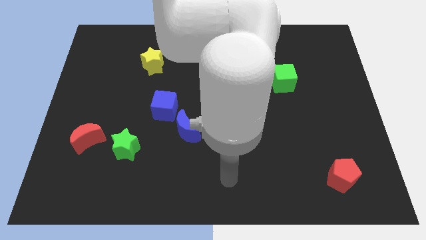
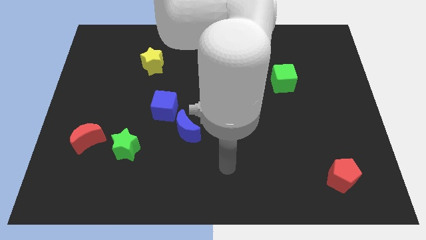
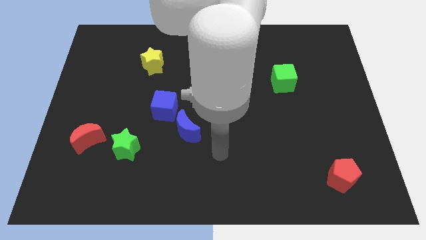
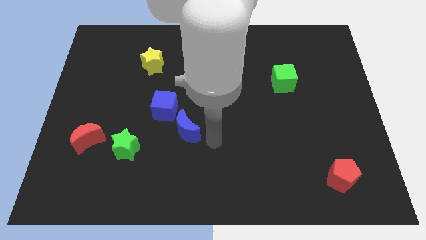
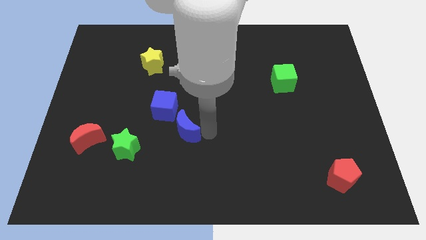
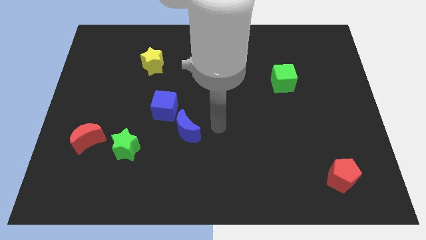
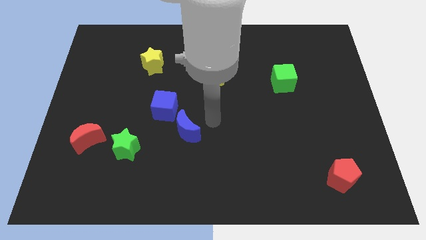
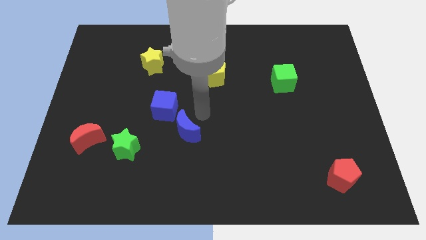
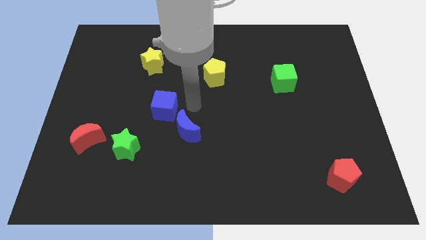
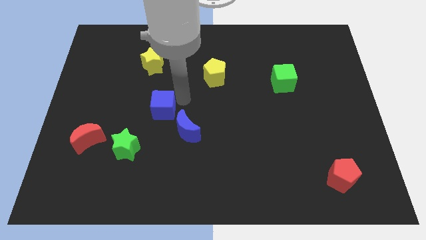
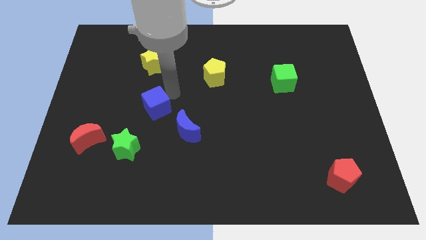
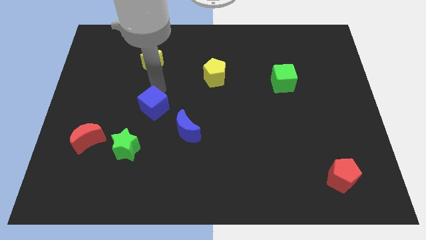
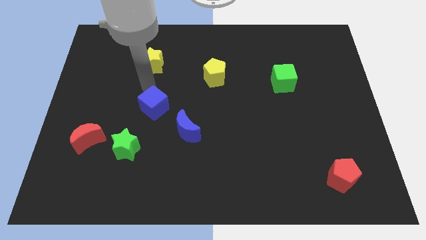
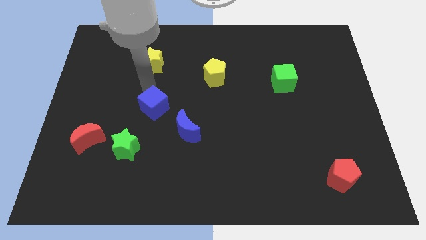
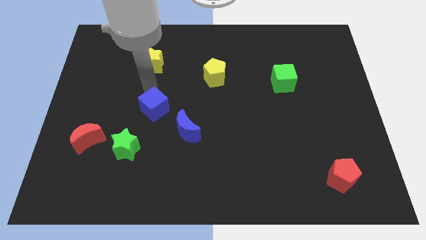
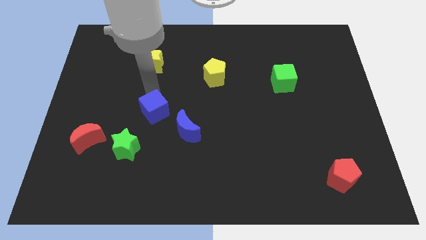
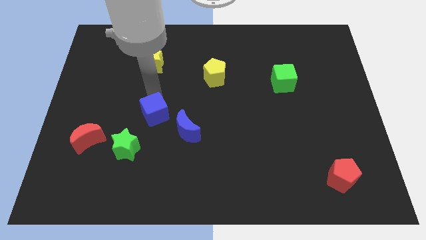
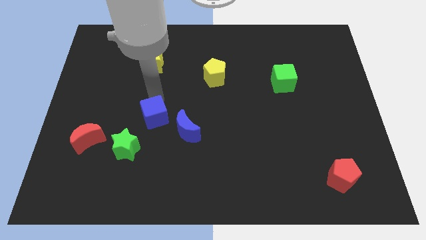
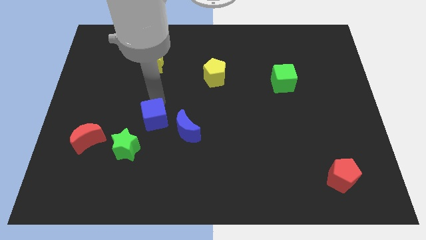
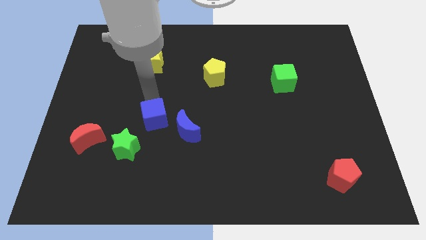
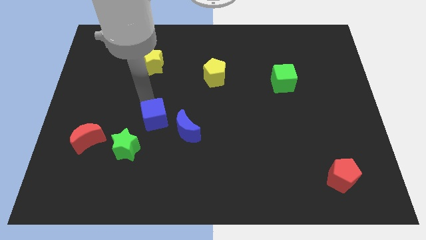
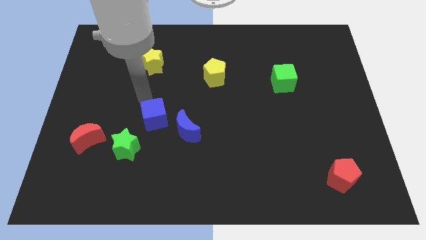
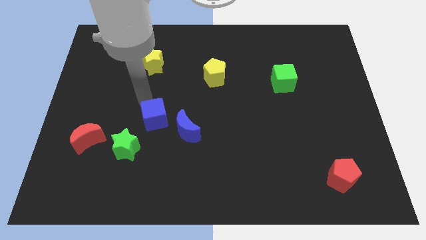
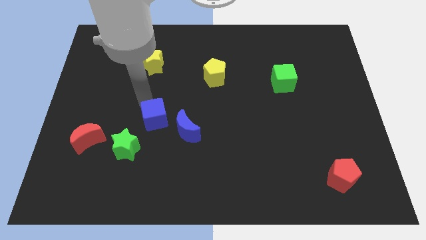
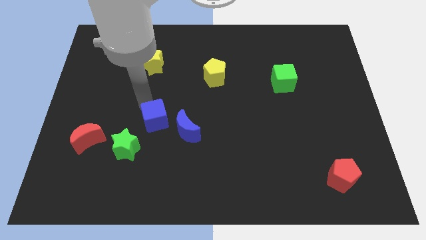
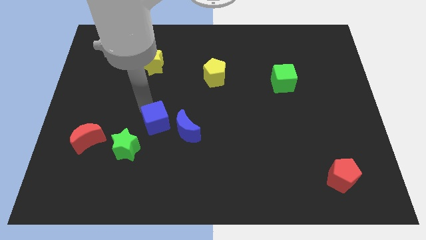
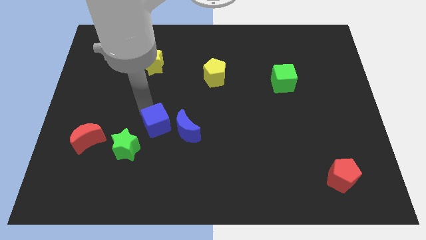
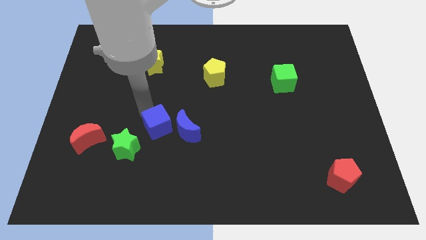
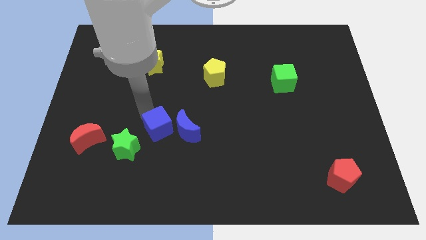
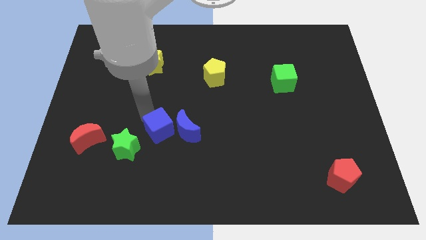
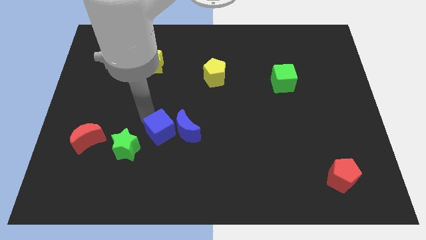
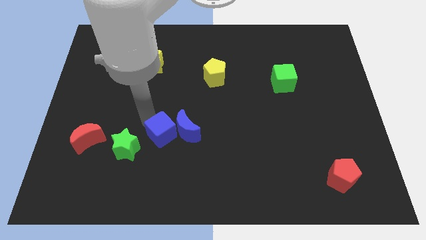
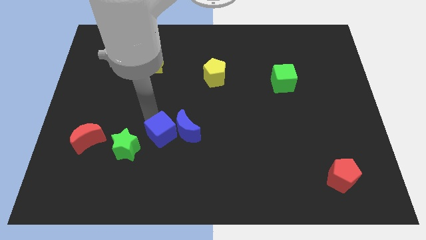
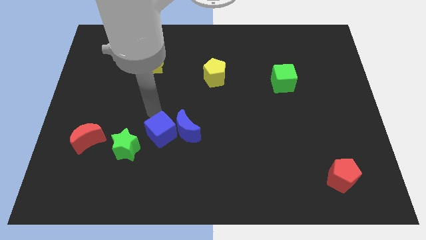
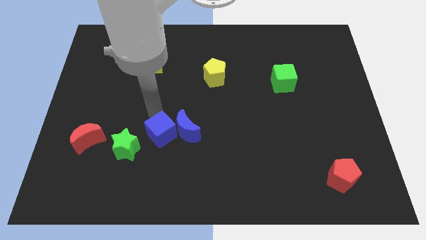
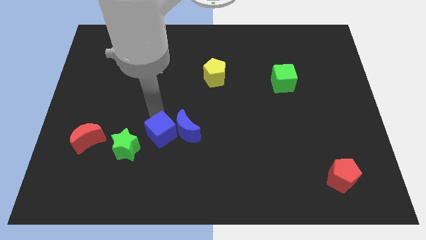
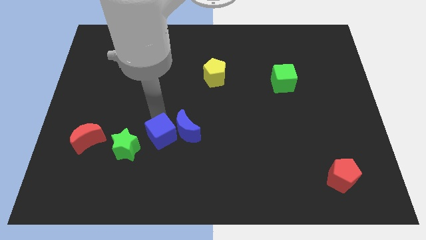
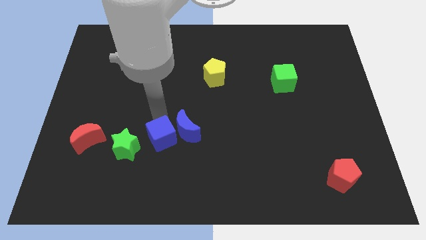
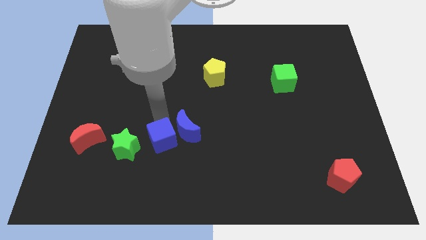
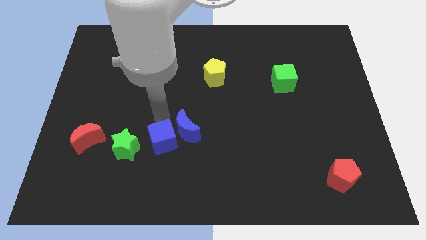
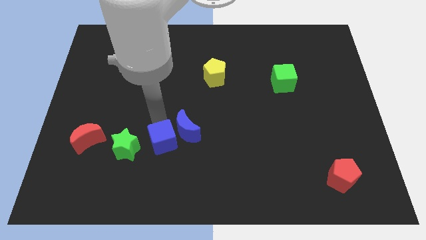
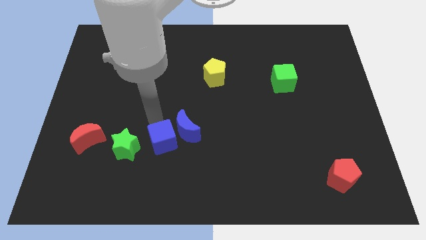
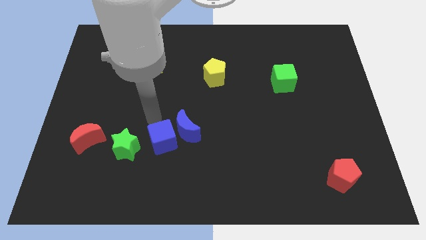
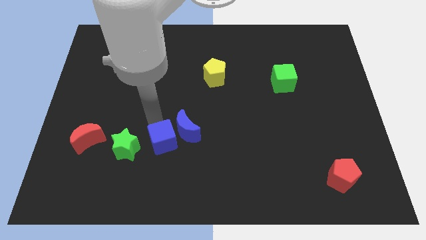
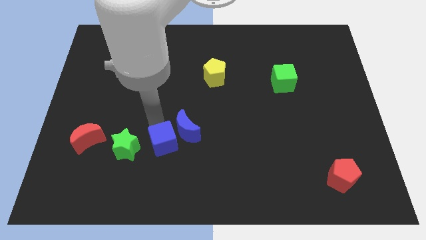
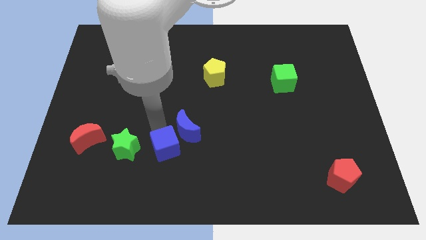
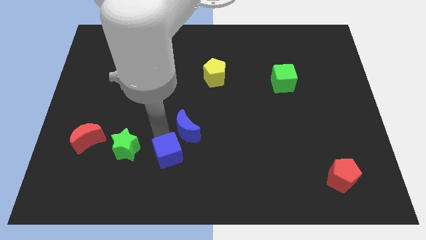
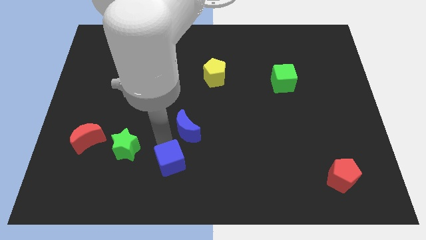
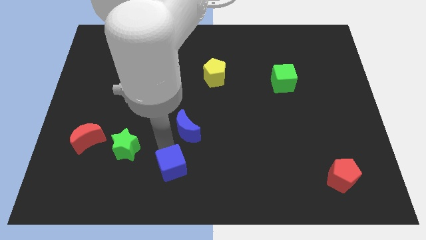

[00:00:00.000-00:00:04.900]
put the blue cube to the bottom

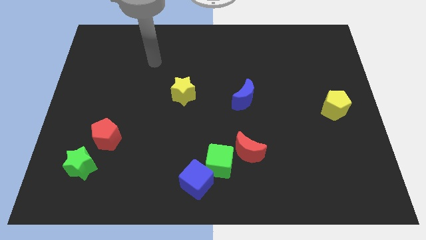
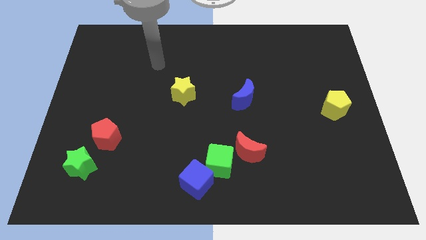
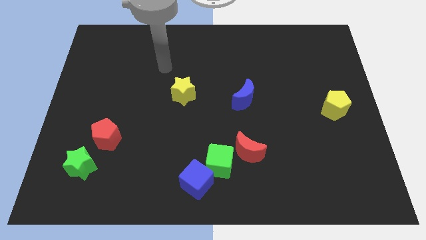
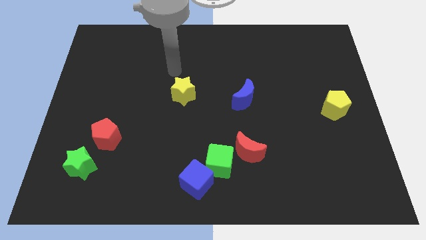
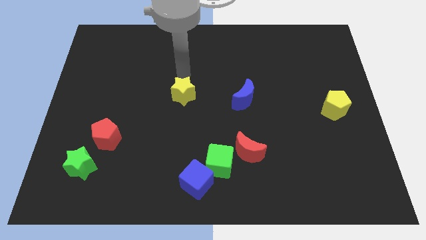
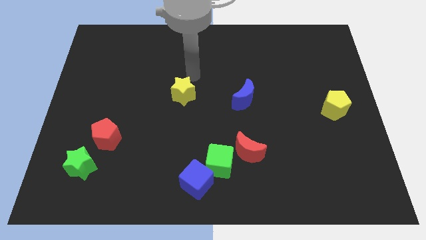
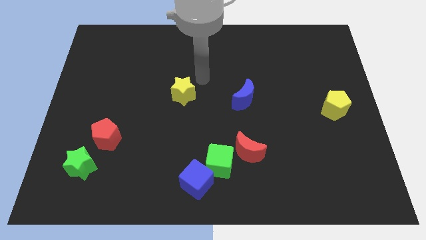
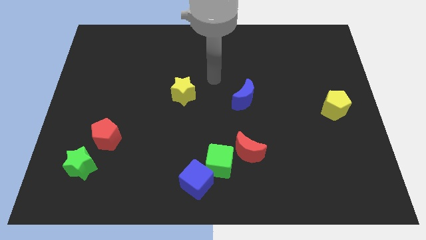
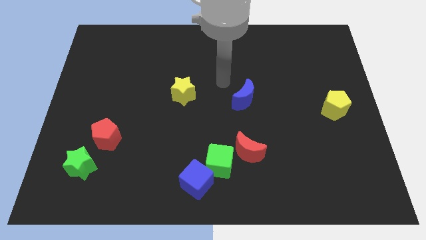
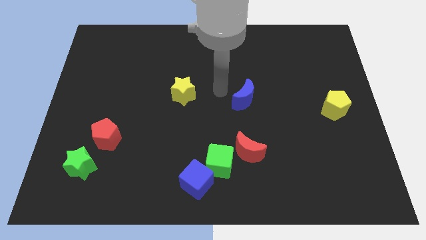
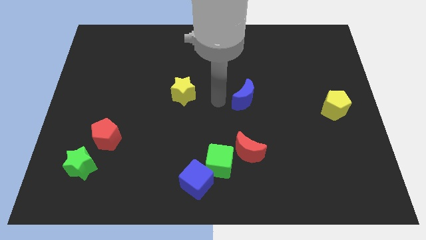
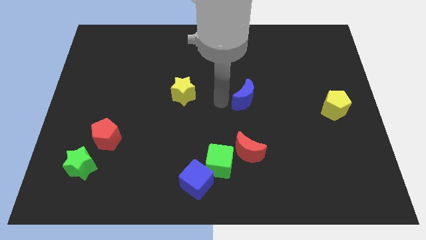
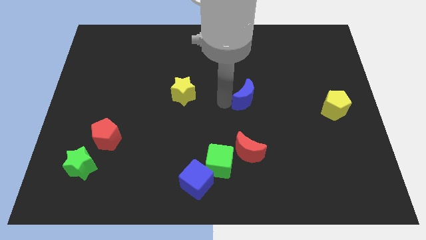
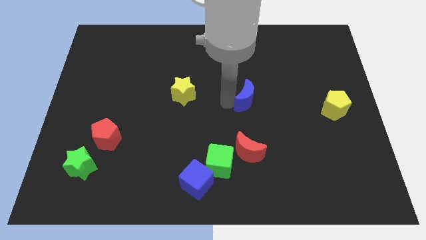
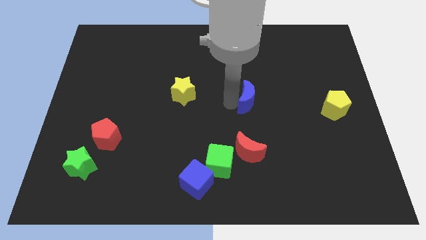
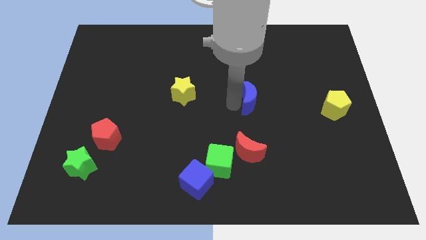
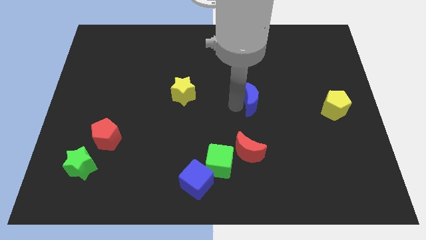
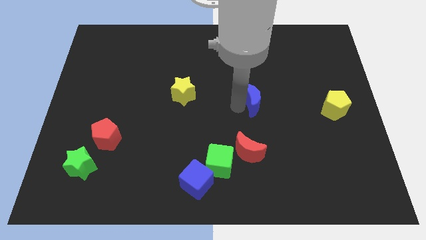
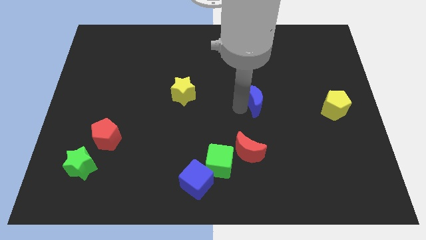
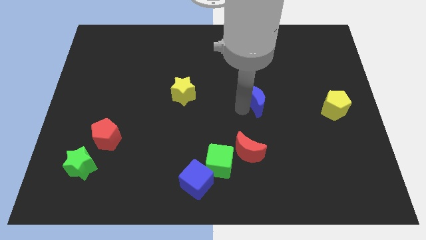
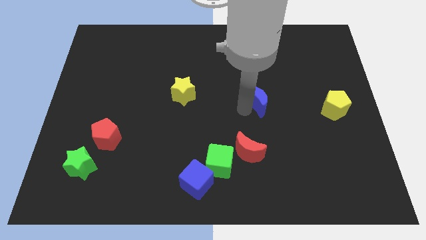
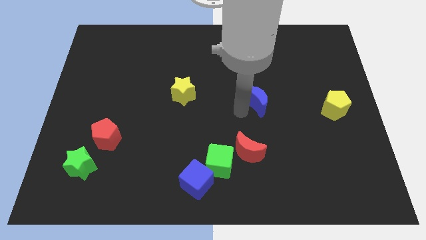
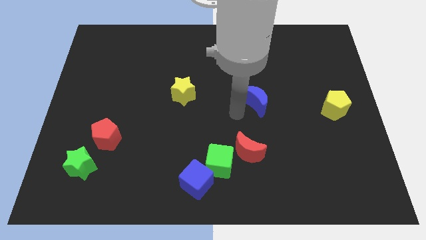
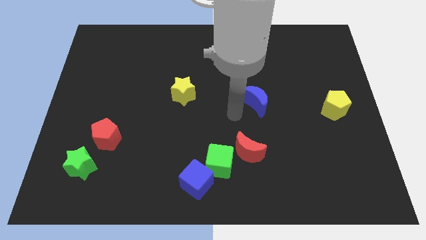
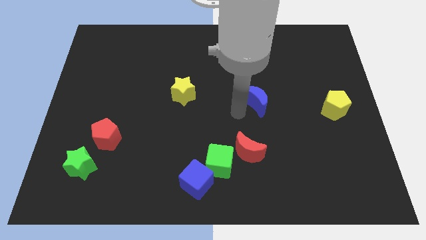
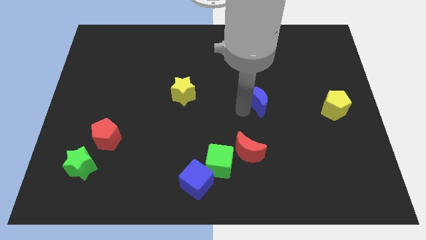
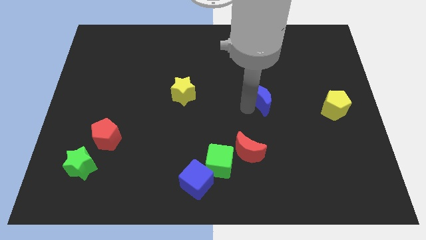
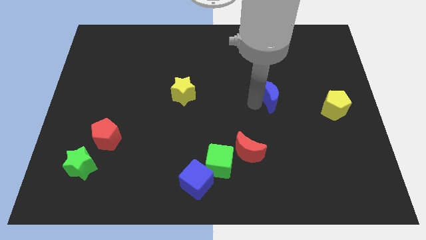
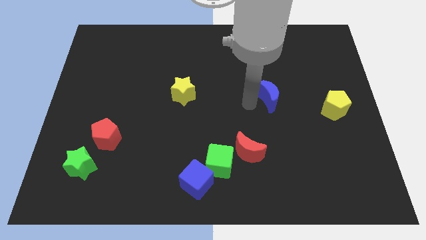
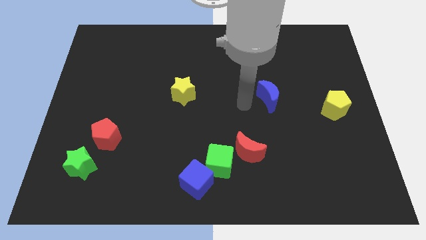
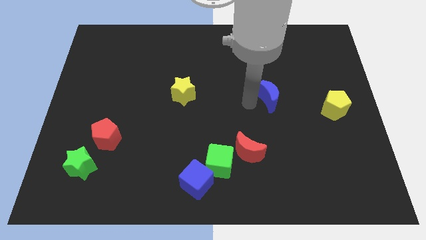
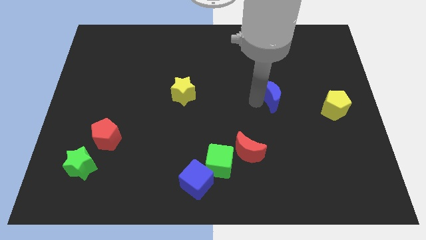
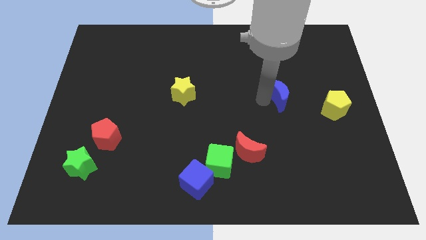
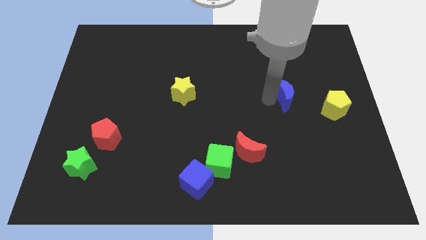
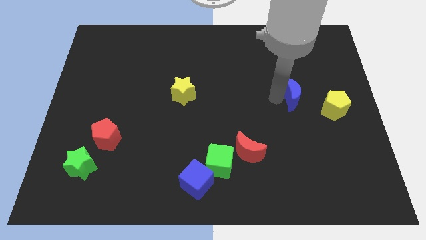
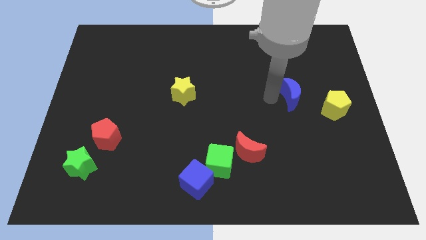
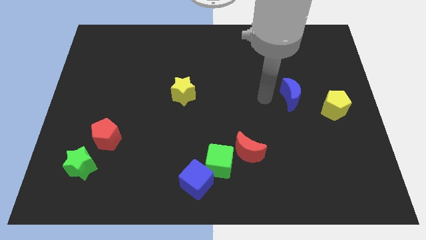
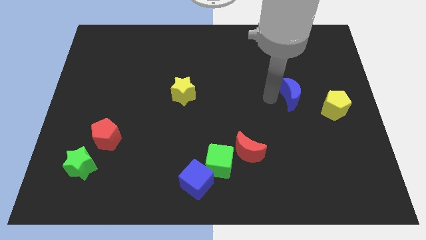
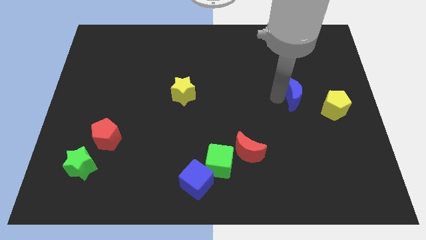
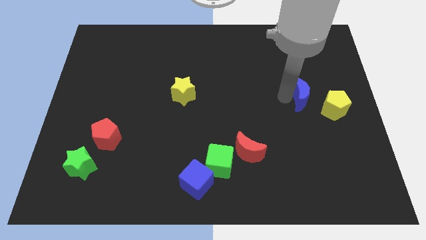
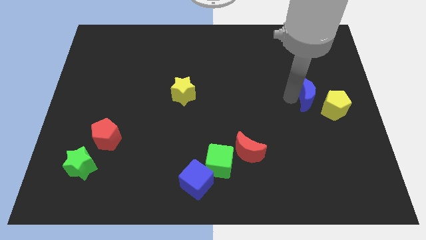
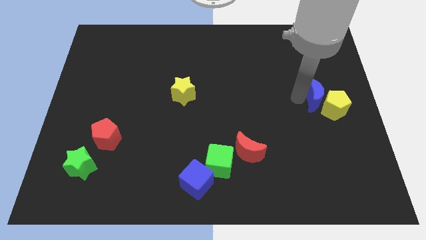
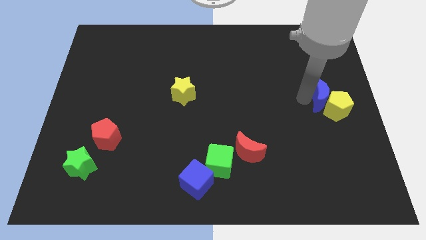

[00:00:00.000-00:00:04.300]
put the blue moon to the center right
